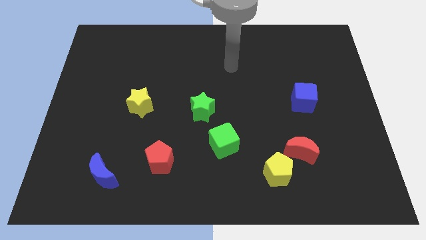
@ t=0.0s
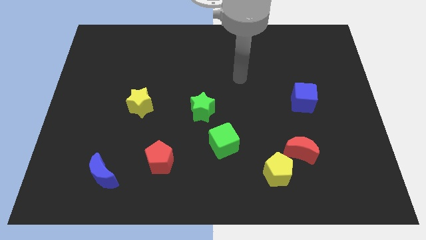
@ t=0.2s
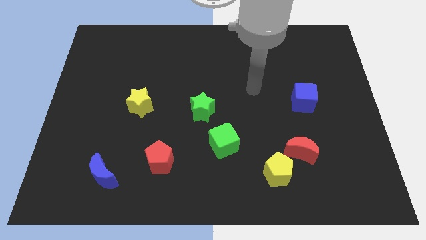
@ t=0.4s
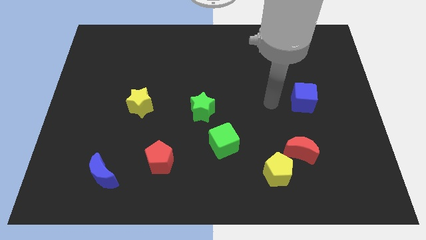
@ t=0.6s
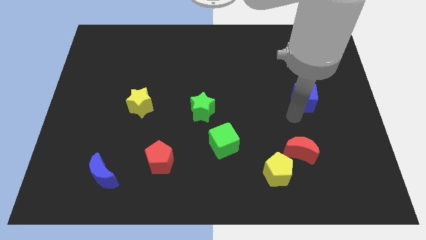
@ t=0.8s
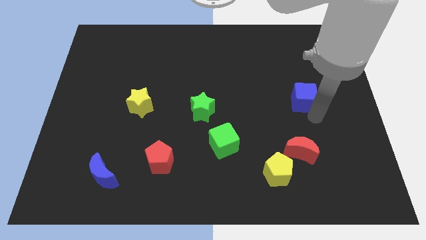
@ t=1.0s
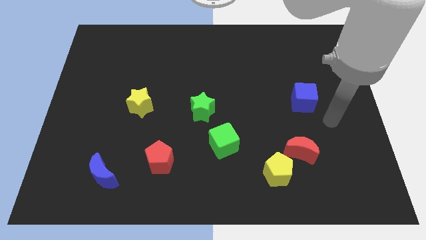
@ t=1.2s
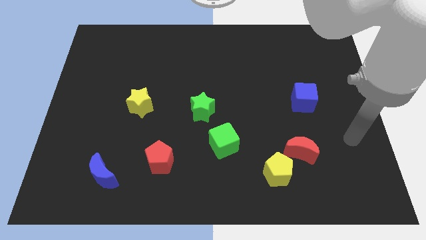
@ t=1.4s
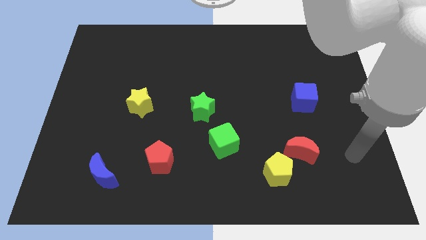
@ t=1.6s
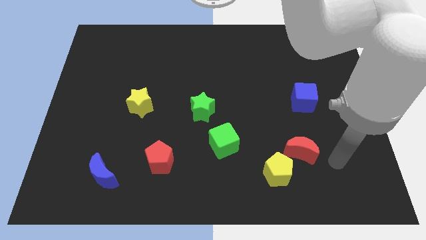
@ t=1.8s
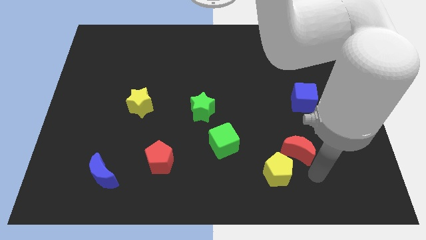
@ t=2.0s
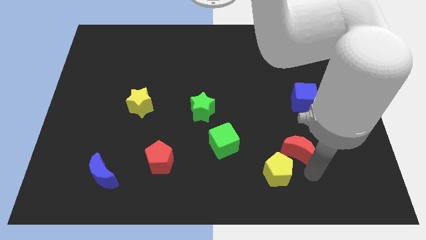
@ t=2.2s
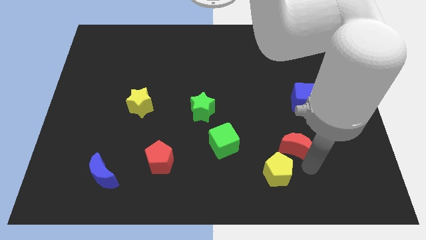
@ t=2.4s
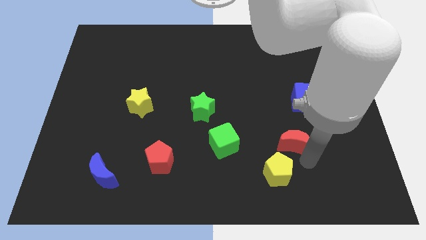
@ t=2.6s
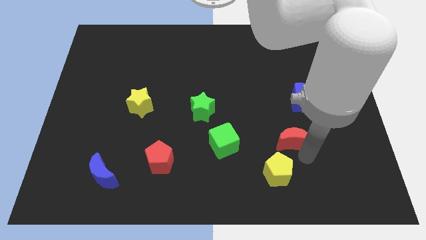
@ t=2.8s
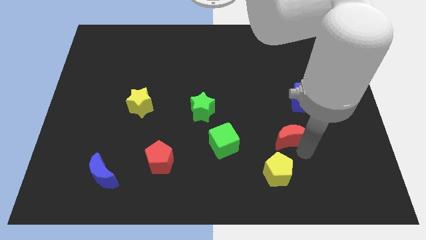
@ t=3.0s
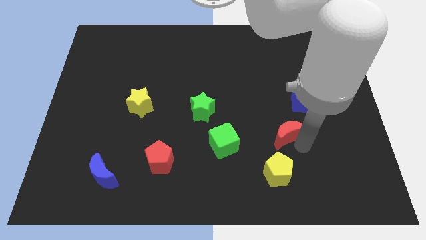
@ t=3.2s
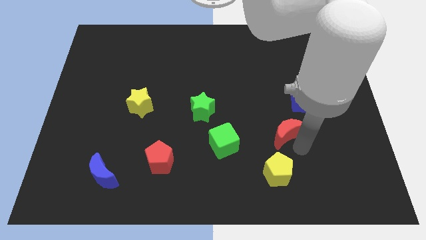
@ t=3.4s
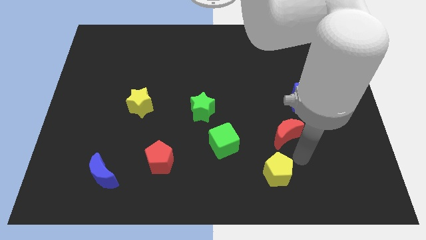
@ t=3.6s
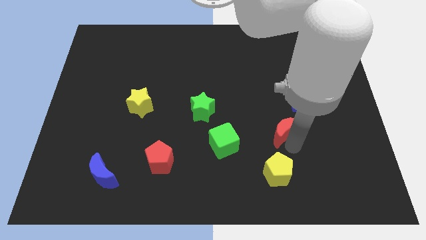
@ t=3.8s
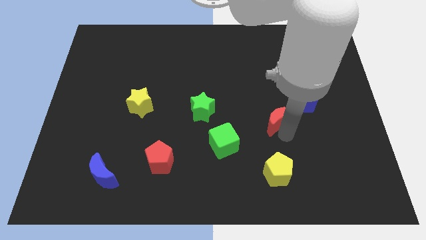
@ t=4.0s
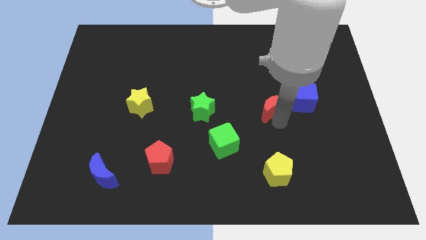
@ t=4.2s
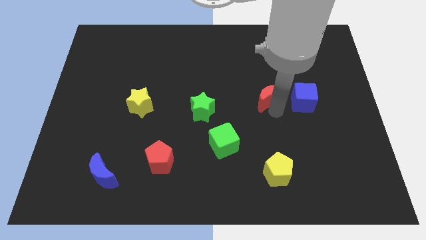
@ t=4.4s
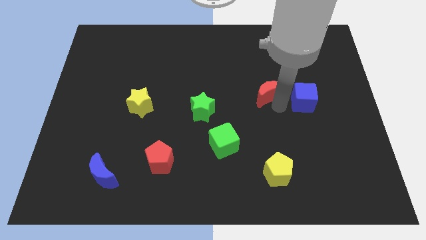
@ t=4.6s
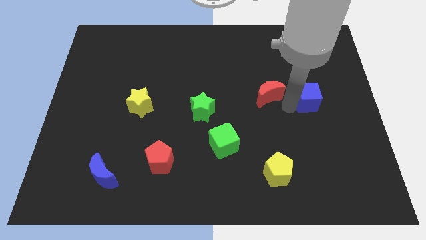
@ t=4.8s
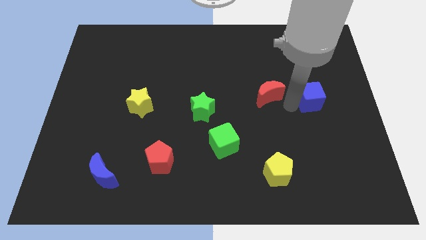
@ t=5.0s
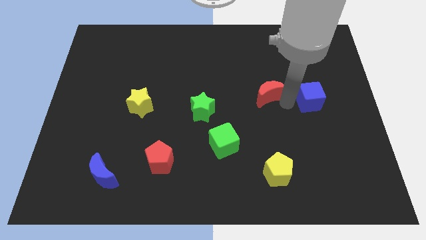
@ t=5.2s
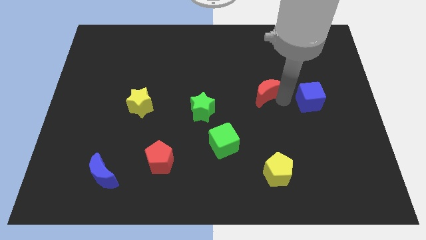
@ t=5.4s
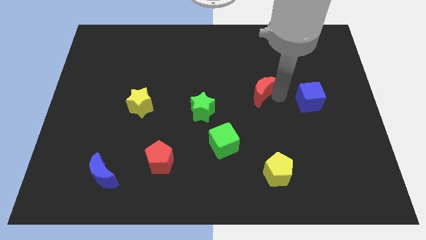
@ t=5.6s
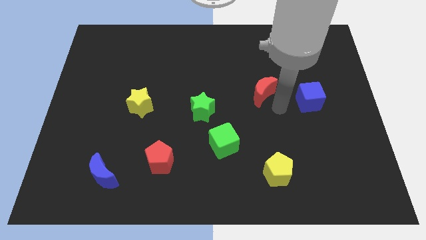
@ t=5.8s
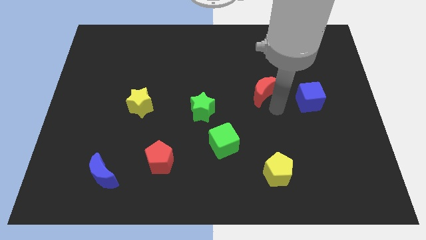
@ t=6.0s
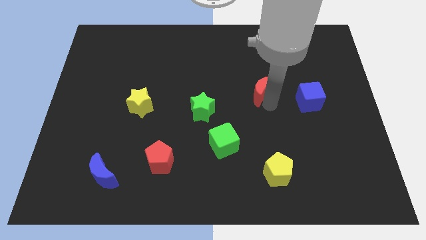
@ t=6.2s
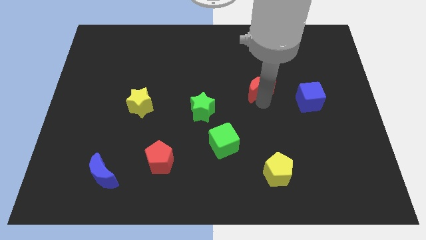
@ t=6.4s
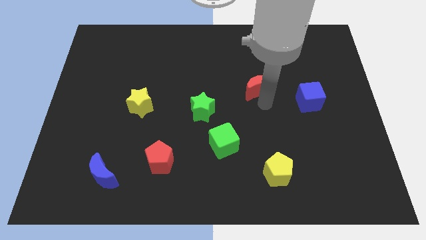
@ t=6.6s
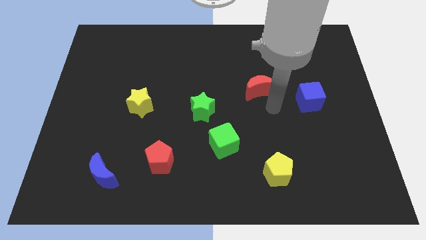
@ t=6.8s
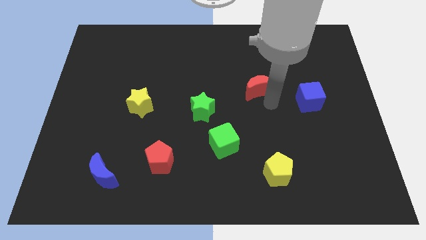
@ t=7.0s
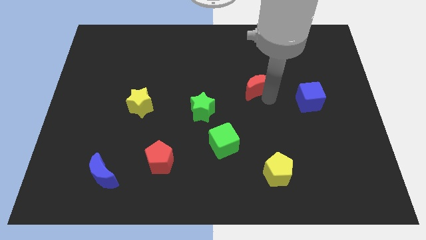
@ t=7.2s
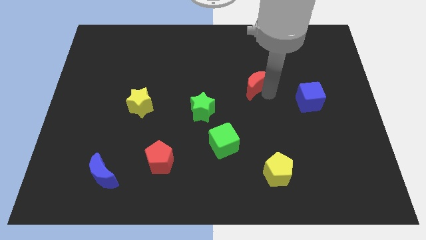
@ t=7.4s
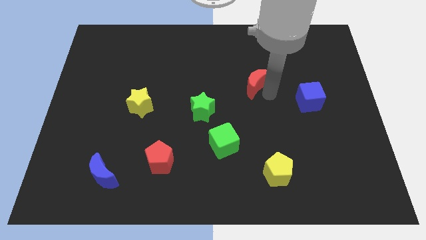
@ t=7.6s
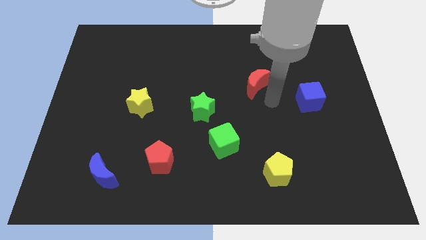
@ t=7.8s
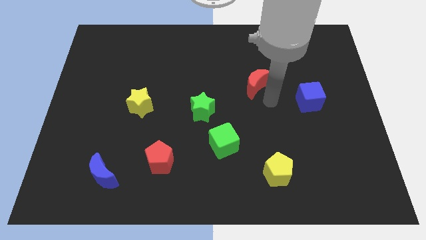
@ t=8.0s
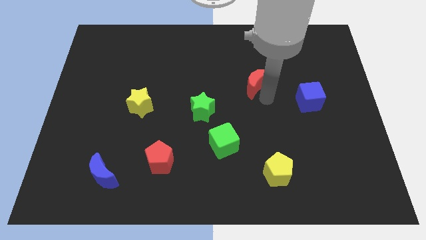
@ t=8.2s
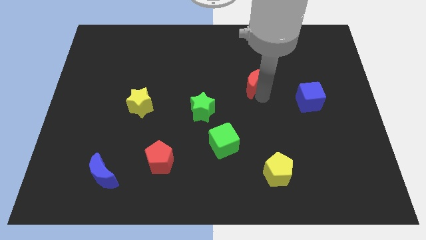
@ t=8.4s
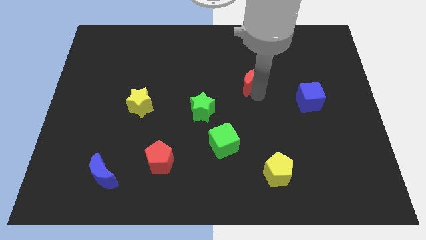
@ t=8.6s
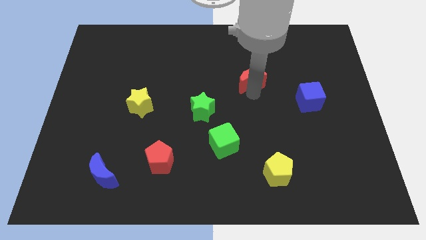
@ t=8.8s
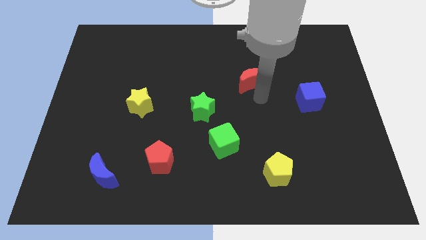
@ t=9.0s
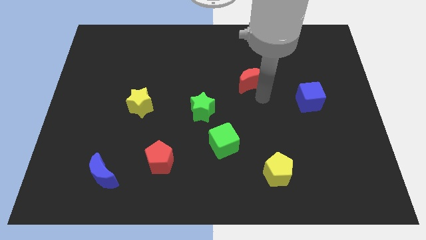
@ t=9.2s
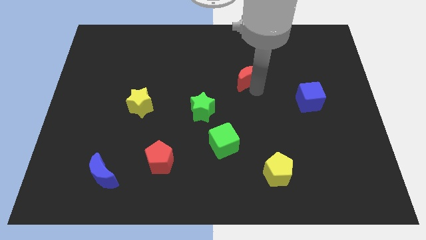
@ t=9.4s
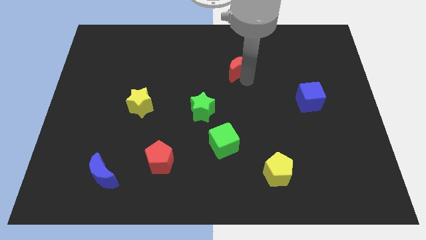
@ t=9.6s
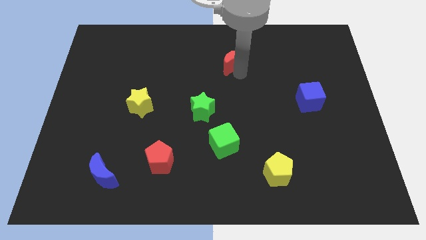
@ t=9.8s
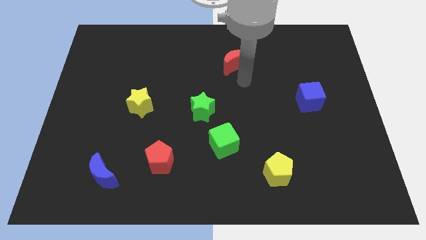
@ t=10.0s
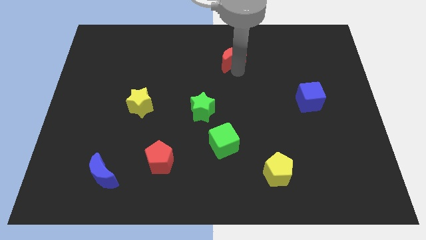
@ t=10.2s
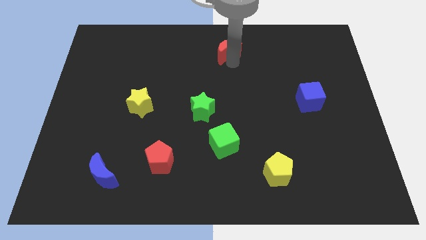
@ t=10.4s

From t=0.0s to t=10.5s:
put the red moon to the top

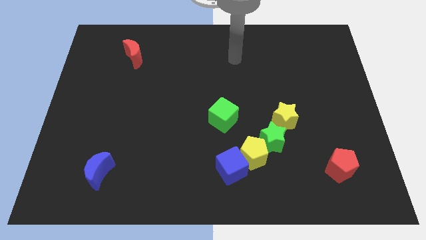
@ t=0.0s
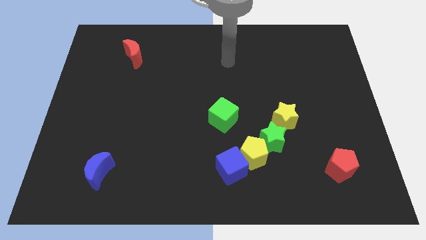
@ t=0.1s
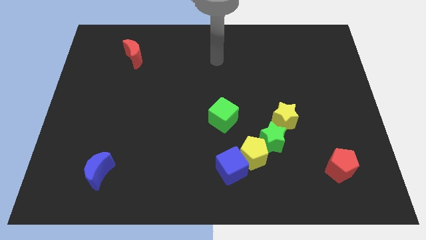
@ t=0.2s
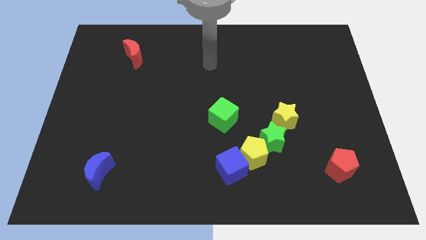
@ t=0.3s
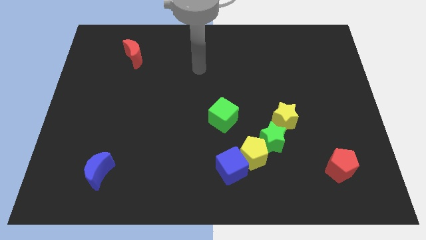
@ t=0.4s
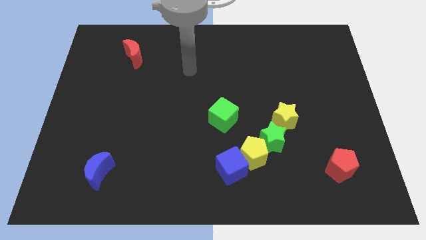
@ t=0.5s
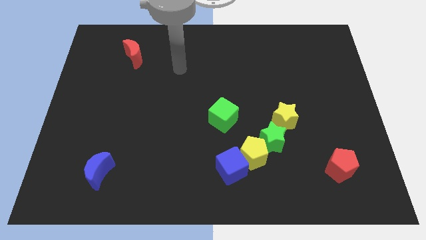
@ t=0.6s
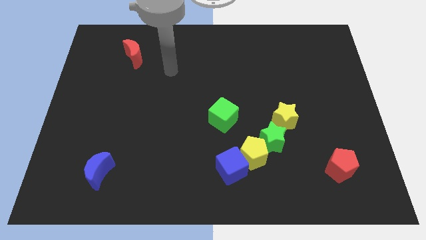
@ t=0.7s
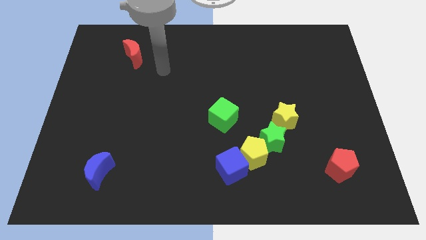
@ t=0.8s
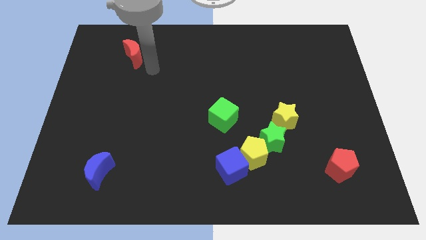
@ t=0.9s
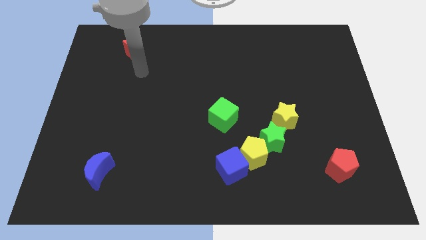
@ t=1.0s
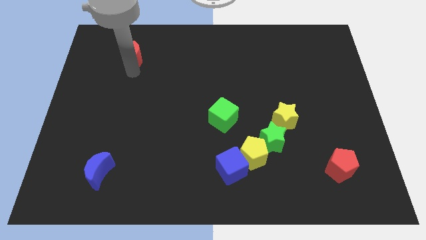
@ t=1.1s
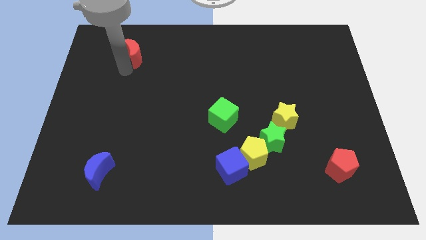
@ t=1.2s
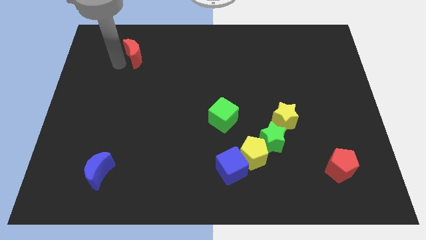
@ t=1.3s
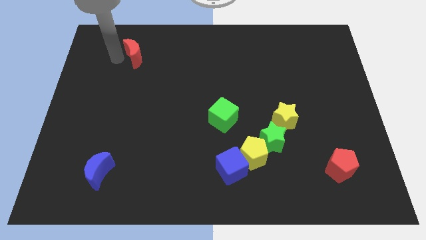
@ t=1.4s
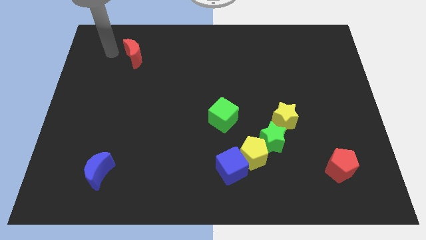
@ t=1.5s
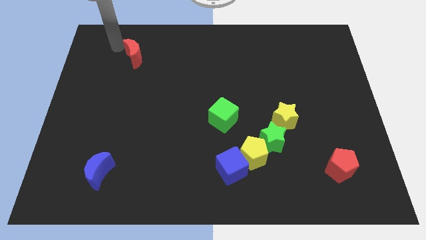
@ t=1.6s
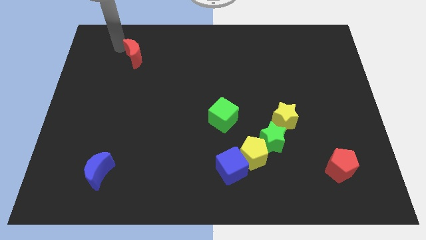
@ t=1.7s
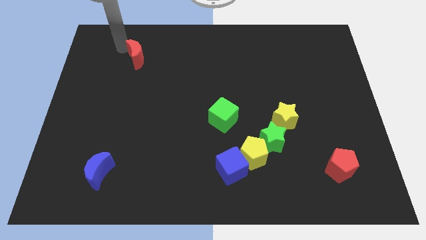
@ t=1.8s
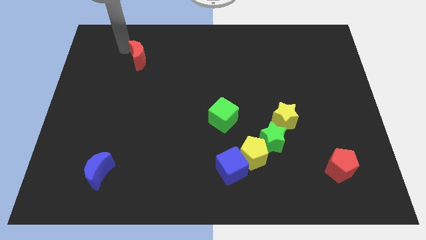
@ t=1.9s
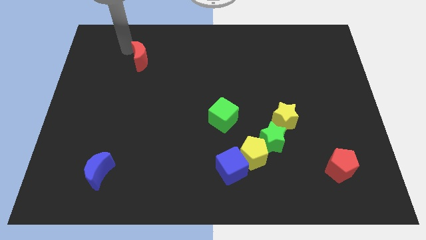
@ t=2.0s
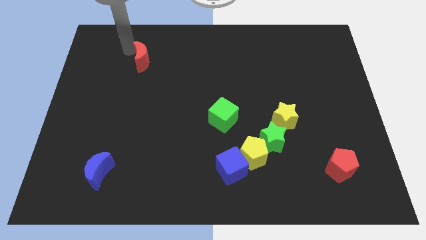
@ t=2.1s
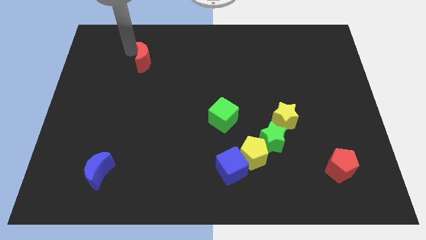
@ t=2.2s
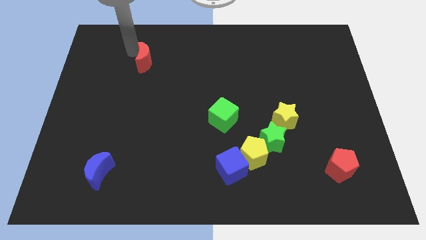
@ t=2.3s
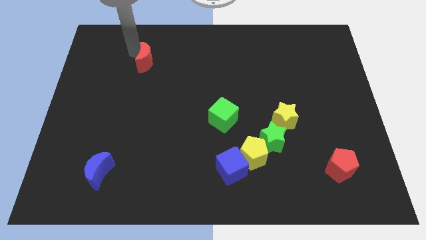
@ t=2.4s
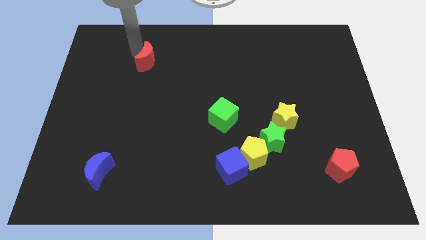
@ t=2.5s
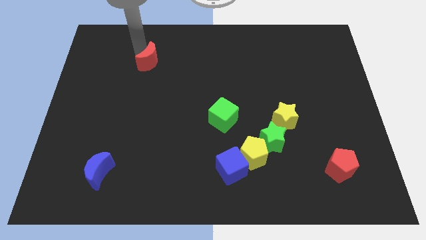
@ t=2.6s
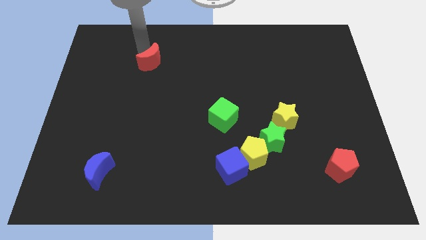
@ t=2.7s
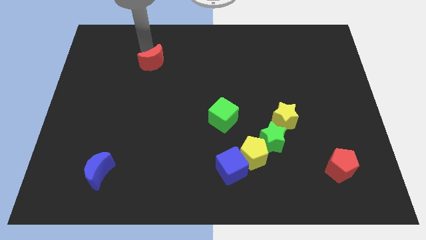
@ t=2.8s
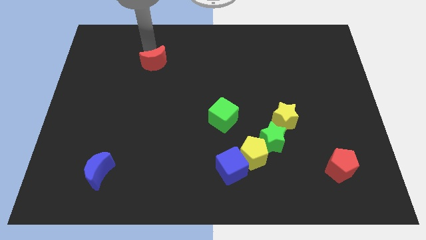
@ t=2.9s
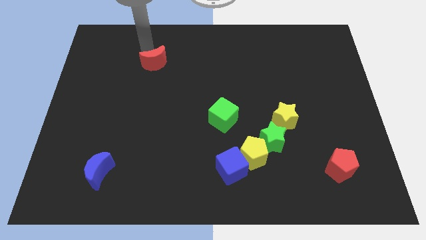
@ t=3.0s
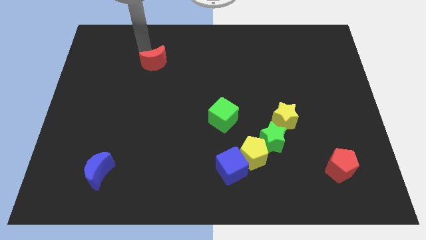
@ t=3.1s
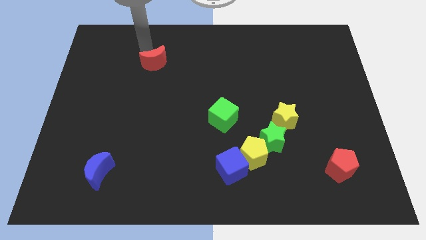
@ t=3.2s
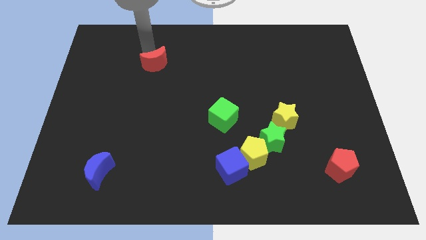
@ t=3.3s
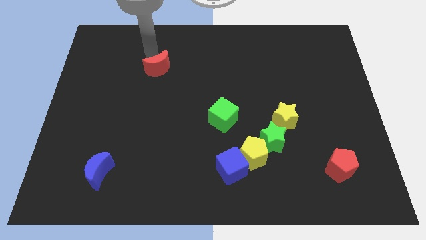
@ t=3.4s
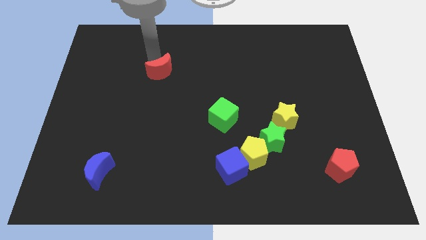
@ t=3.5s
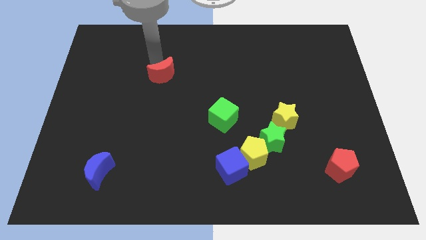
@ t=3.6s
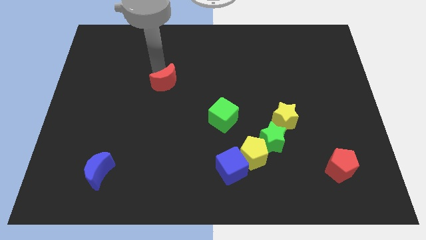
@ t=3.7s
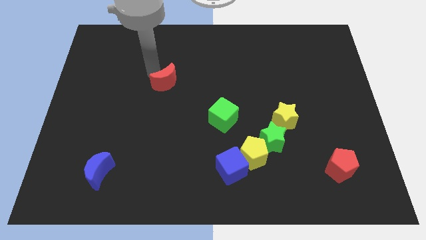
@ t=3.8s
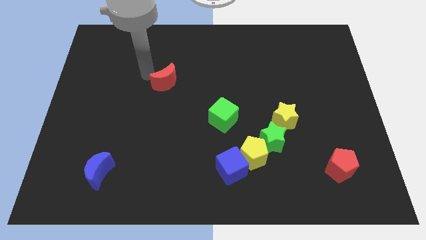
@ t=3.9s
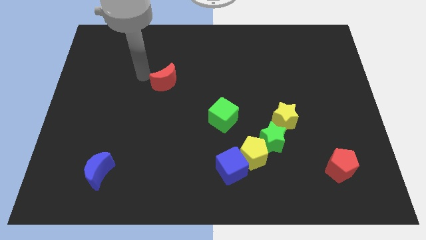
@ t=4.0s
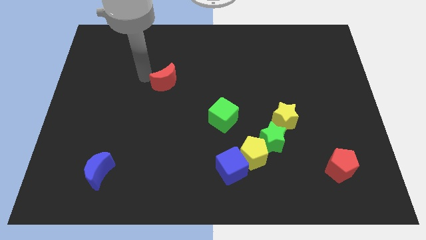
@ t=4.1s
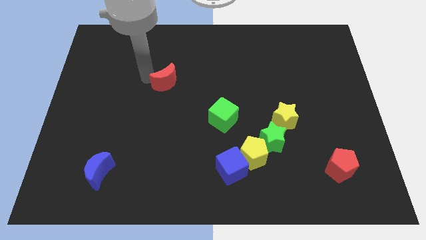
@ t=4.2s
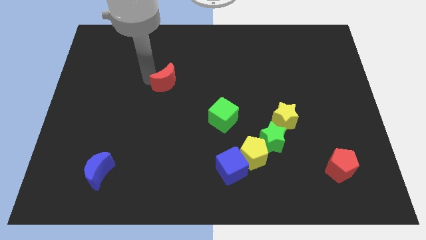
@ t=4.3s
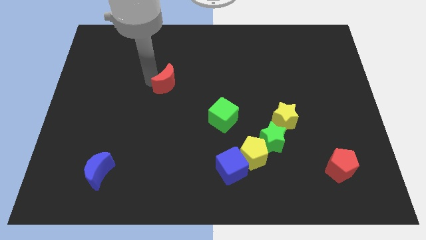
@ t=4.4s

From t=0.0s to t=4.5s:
slide the red moon to the center of the board
